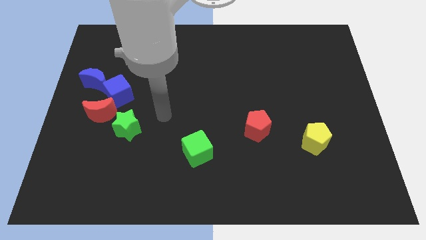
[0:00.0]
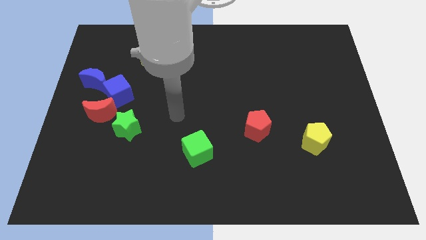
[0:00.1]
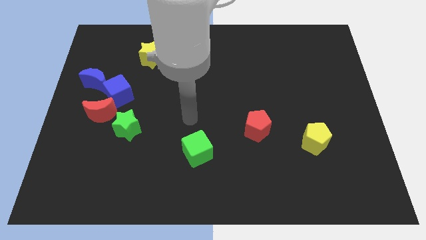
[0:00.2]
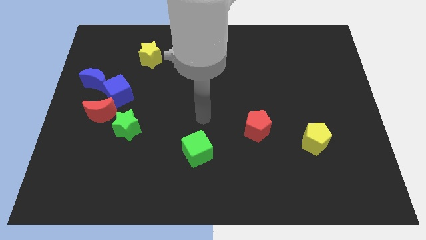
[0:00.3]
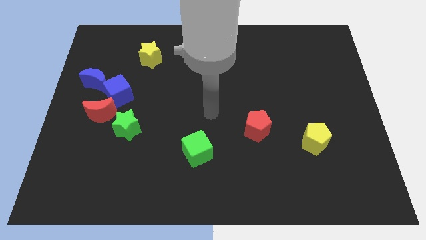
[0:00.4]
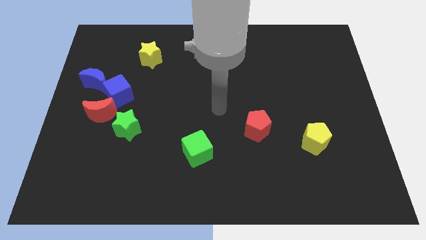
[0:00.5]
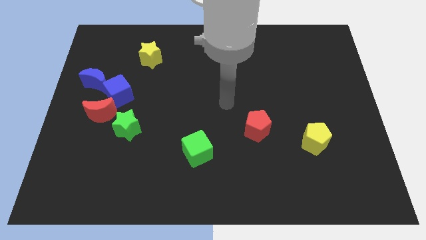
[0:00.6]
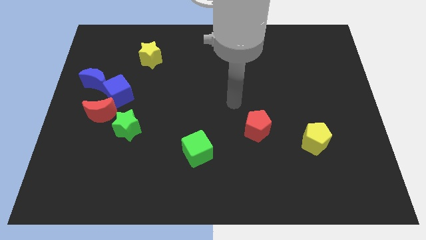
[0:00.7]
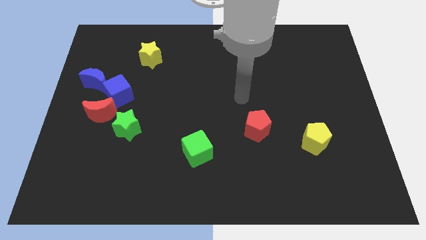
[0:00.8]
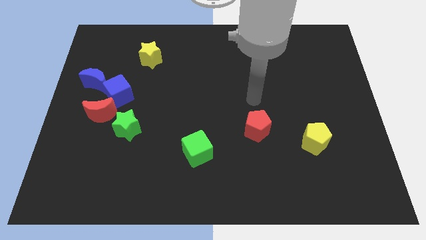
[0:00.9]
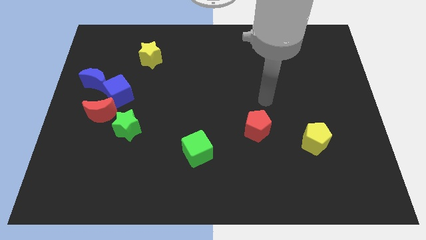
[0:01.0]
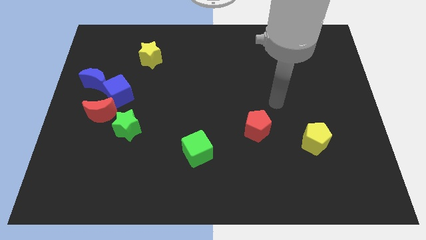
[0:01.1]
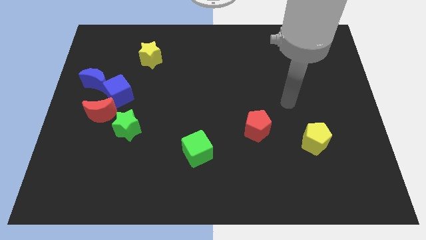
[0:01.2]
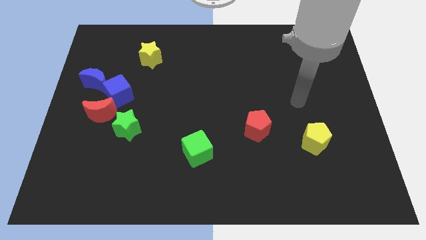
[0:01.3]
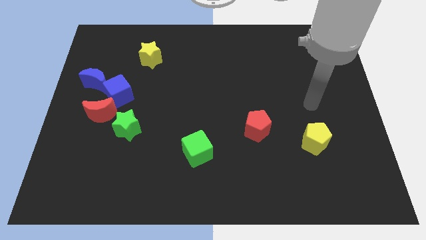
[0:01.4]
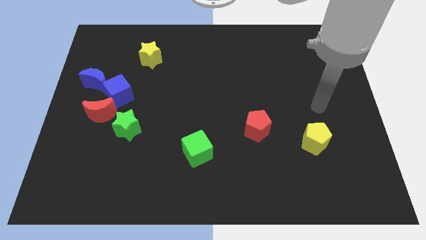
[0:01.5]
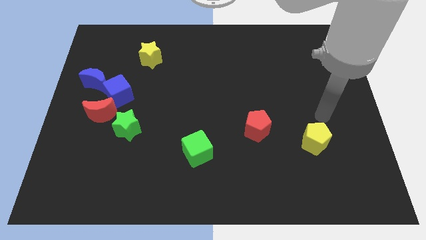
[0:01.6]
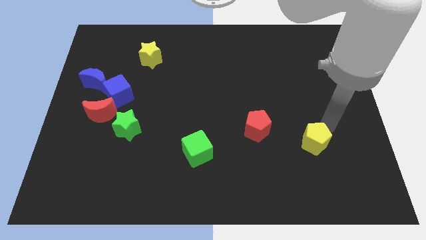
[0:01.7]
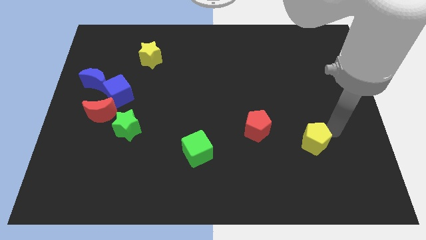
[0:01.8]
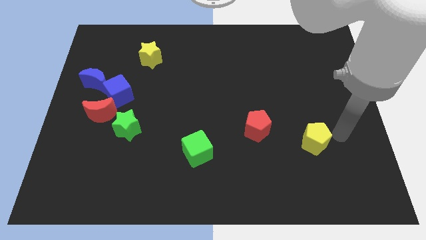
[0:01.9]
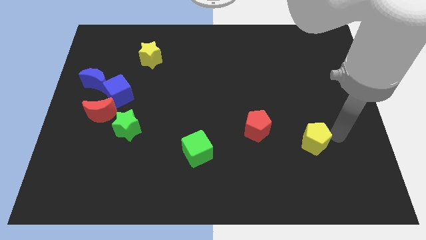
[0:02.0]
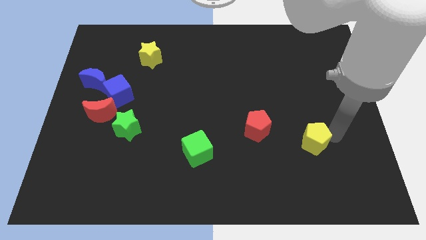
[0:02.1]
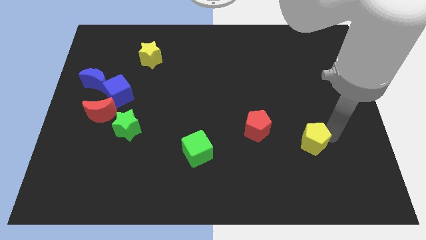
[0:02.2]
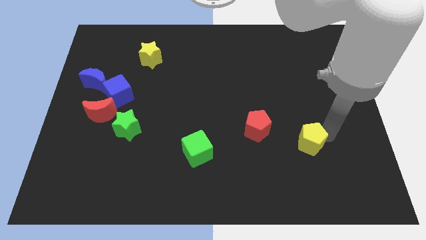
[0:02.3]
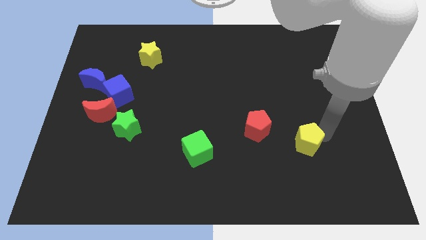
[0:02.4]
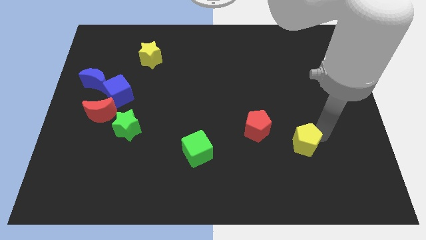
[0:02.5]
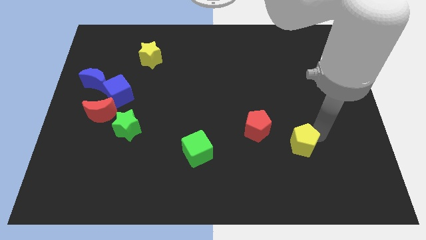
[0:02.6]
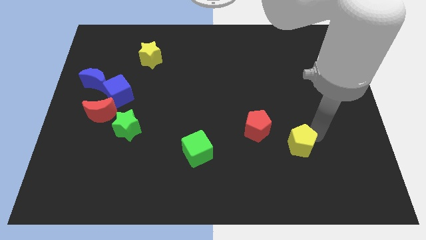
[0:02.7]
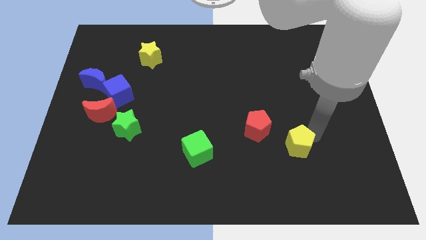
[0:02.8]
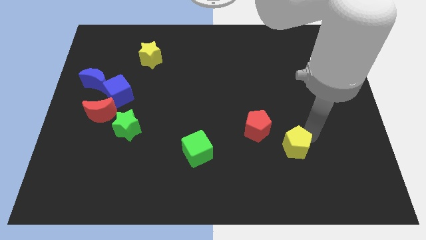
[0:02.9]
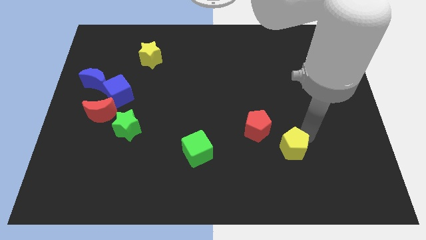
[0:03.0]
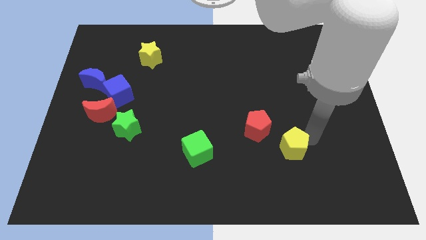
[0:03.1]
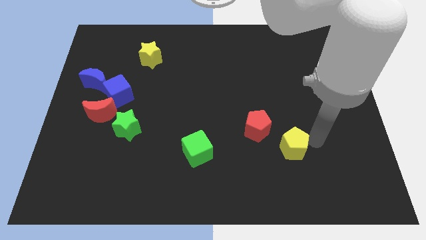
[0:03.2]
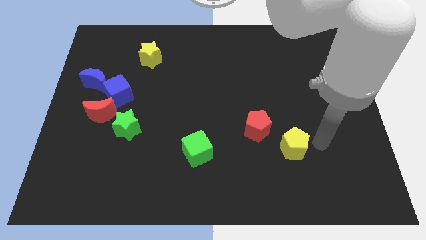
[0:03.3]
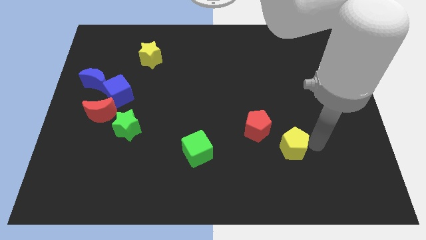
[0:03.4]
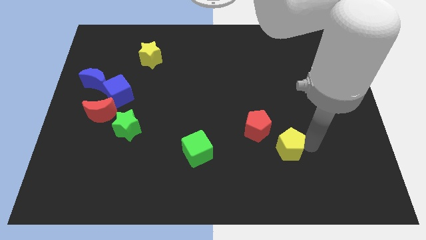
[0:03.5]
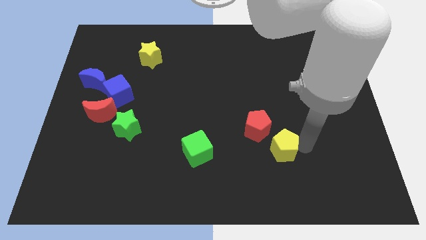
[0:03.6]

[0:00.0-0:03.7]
slightly push the yellow pentagon to the left

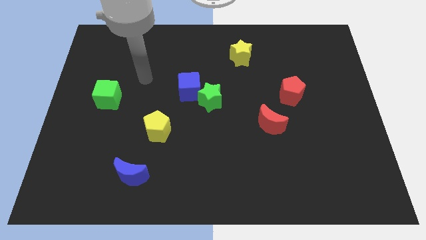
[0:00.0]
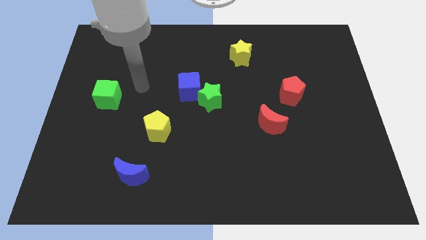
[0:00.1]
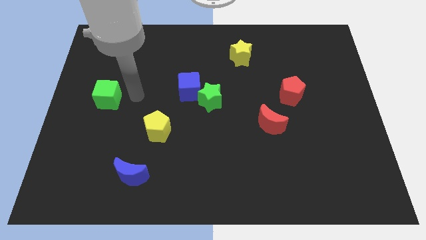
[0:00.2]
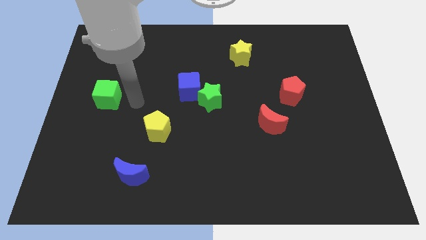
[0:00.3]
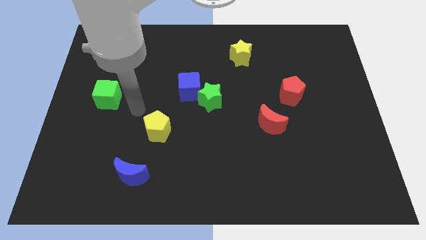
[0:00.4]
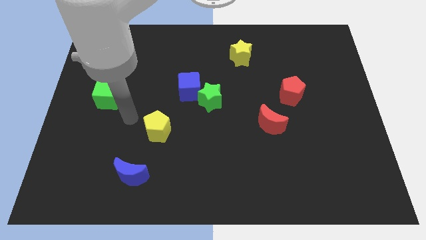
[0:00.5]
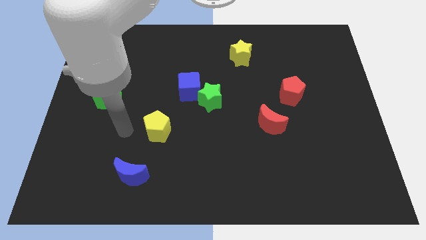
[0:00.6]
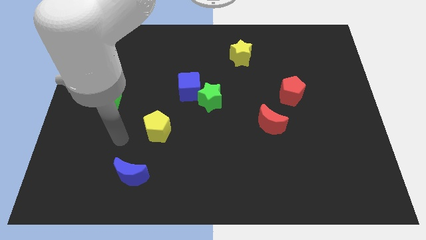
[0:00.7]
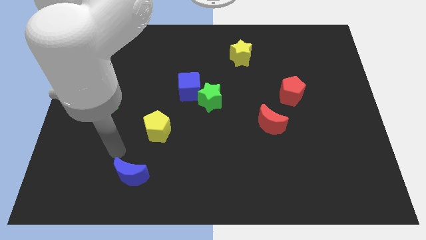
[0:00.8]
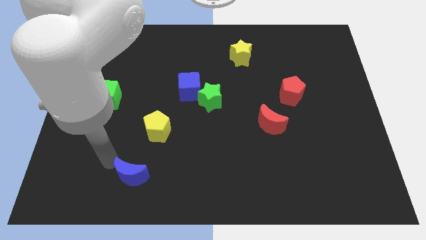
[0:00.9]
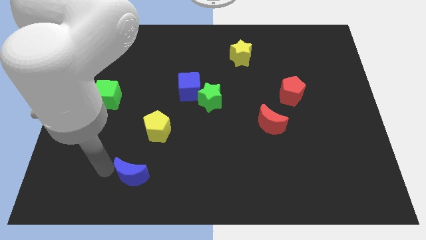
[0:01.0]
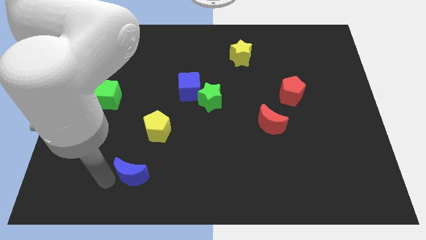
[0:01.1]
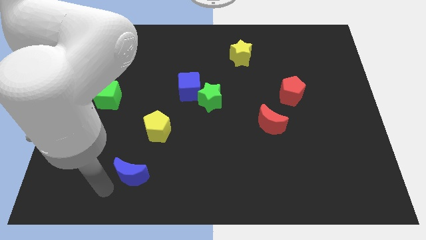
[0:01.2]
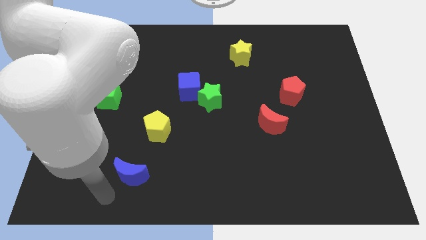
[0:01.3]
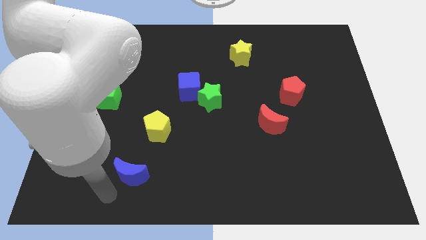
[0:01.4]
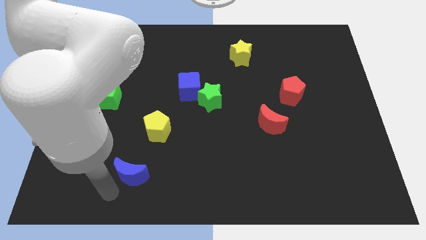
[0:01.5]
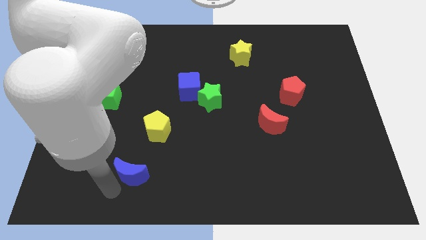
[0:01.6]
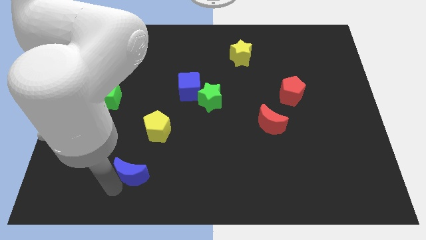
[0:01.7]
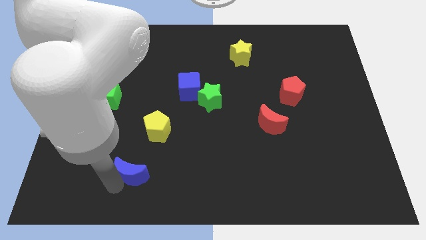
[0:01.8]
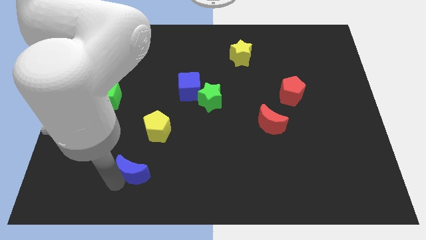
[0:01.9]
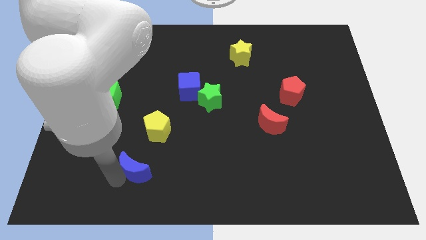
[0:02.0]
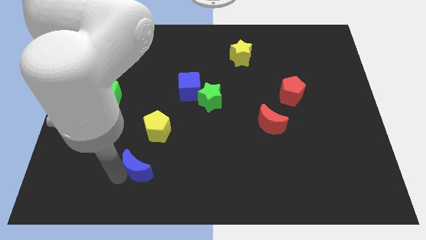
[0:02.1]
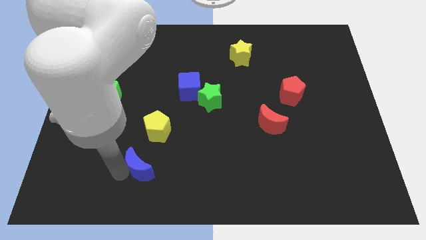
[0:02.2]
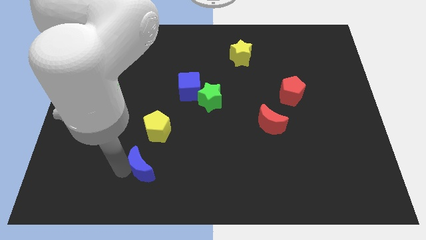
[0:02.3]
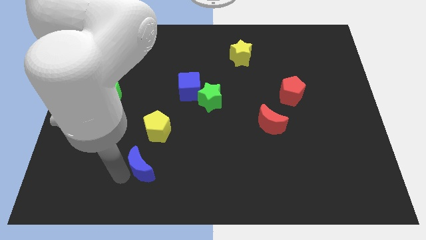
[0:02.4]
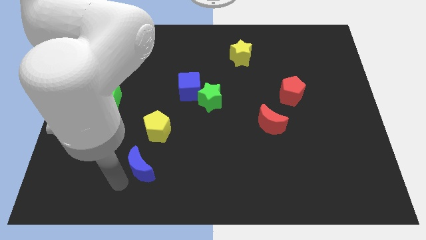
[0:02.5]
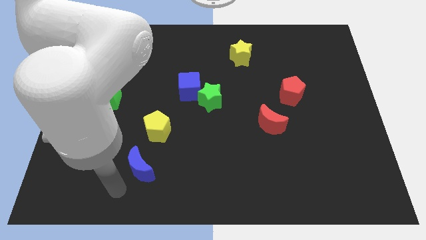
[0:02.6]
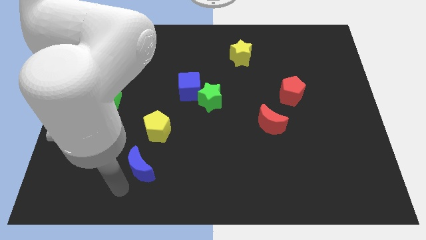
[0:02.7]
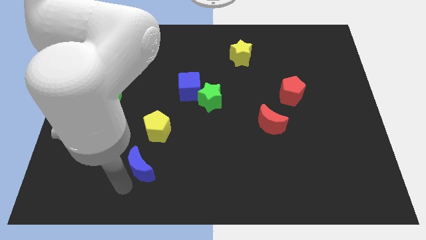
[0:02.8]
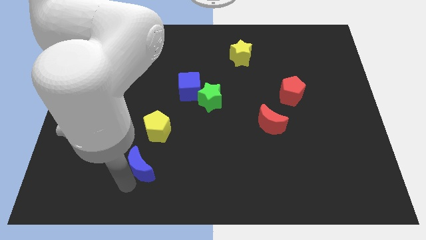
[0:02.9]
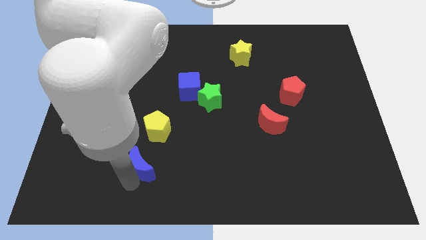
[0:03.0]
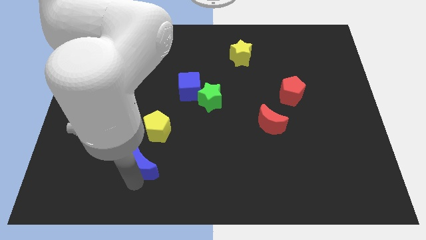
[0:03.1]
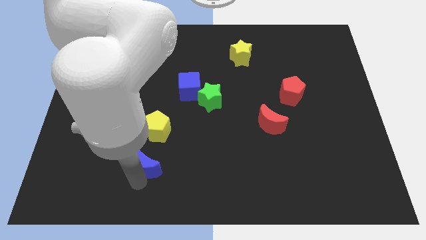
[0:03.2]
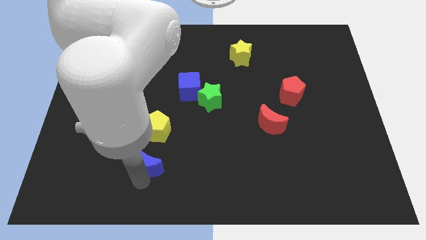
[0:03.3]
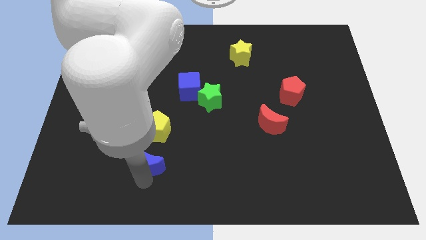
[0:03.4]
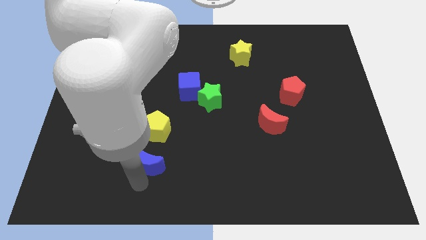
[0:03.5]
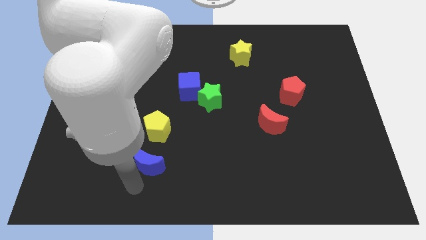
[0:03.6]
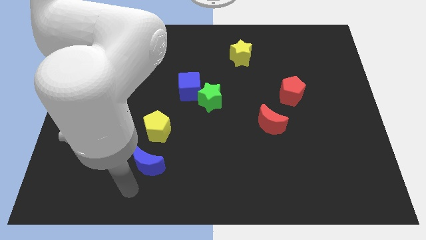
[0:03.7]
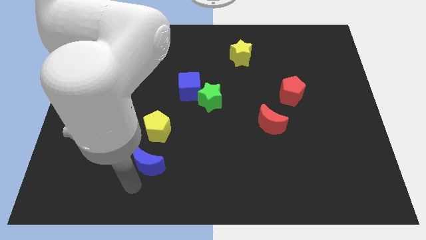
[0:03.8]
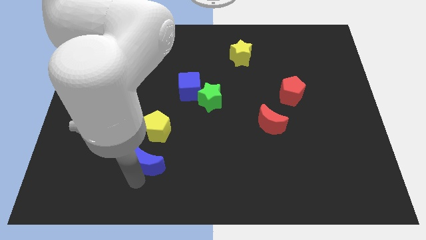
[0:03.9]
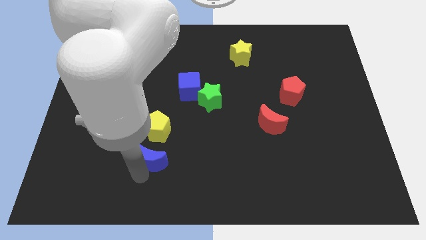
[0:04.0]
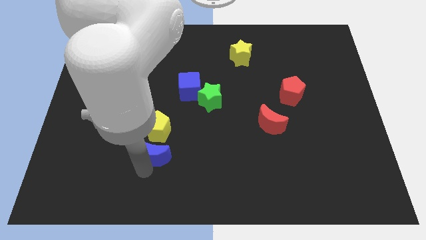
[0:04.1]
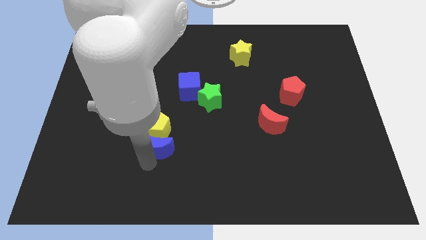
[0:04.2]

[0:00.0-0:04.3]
slide the blue moon a little bit up and then right

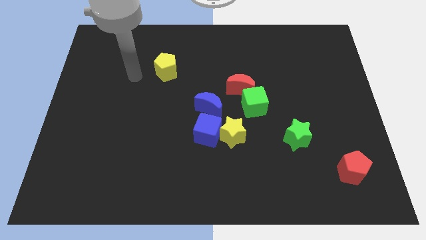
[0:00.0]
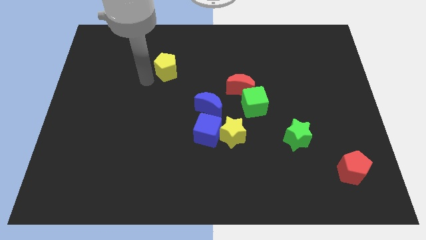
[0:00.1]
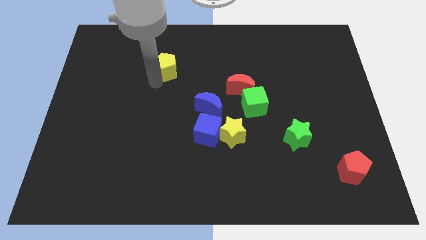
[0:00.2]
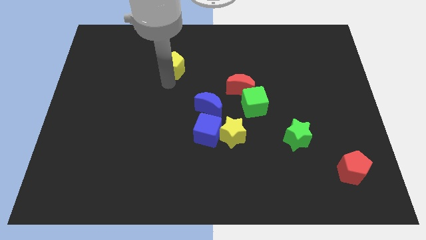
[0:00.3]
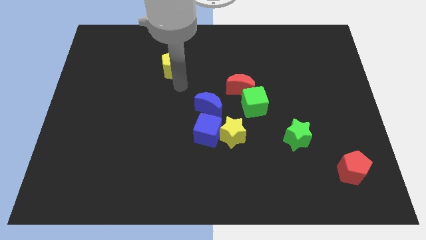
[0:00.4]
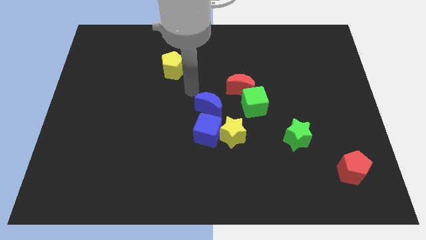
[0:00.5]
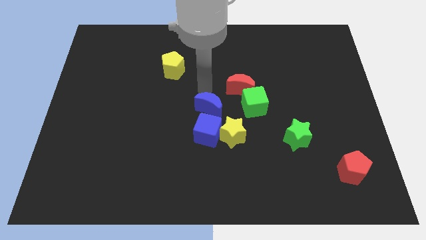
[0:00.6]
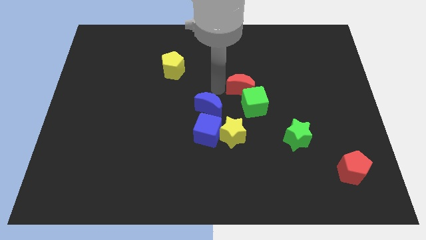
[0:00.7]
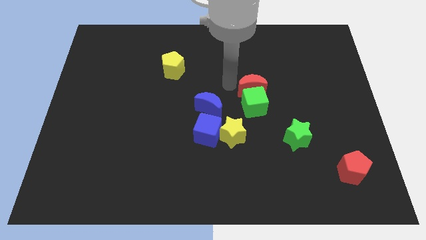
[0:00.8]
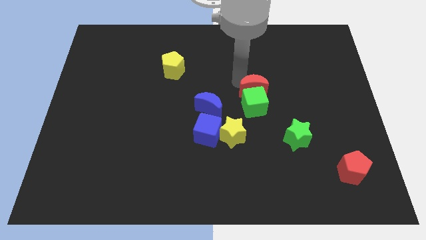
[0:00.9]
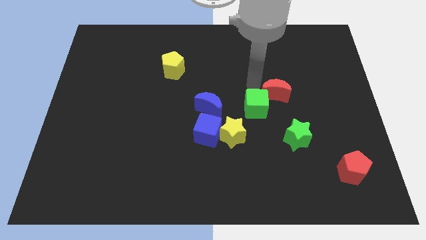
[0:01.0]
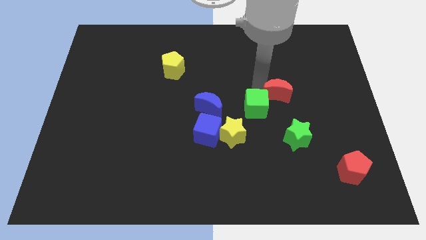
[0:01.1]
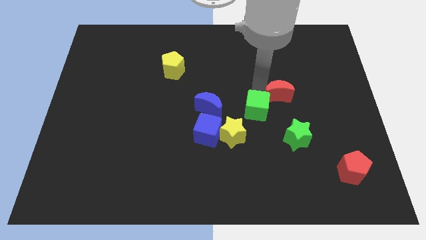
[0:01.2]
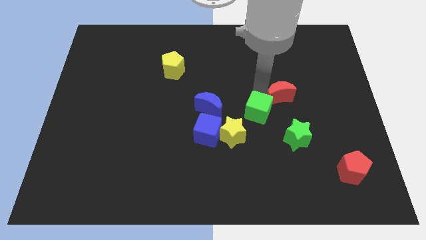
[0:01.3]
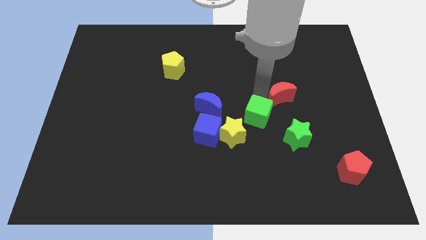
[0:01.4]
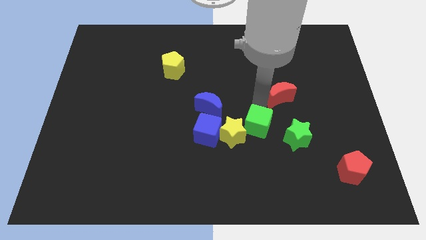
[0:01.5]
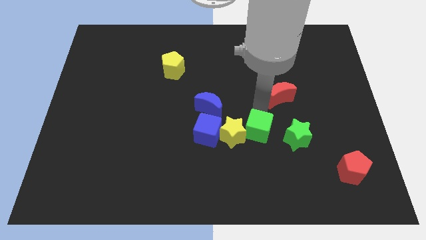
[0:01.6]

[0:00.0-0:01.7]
slightly slide the green cube downwards
